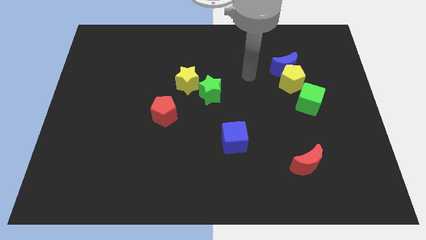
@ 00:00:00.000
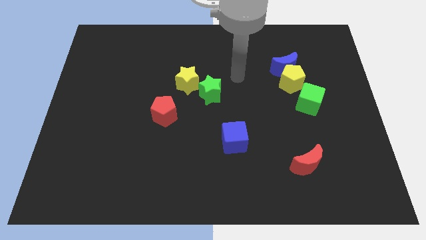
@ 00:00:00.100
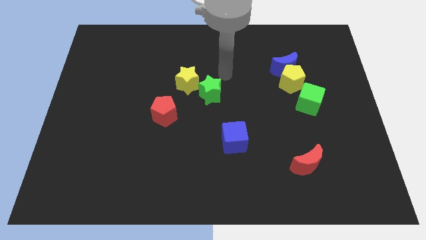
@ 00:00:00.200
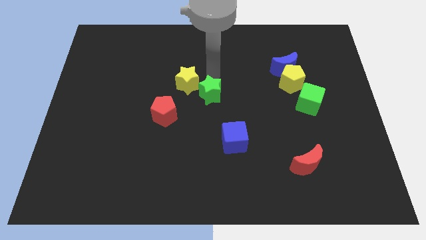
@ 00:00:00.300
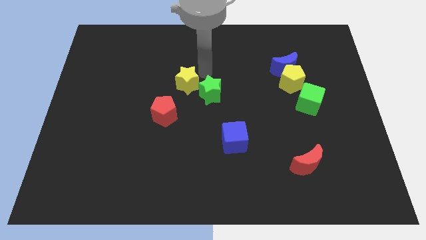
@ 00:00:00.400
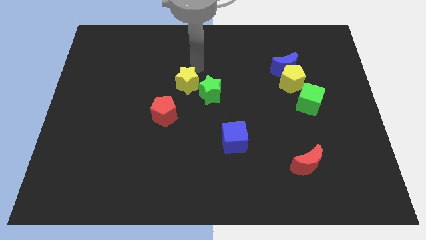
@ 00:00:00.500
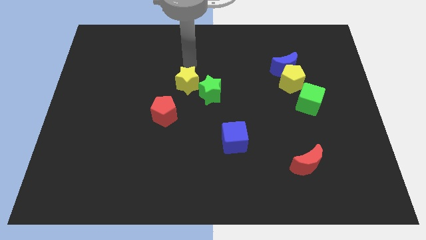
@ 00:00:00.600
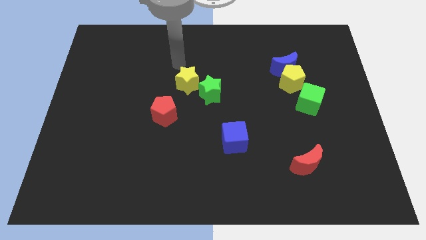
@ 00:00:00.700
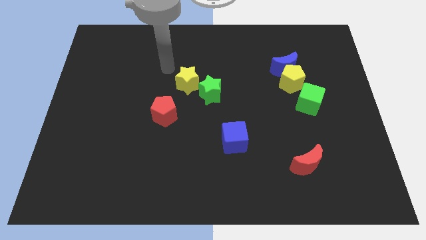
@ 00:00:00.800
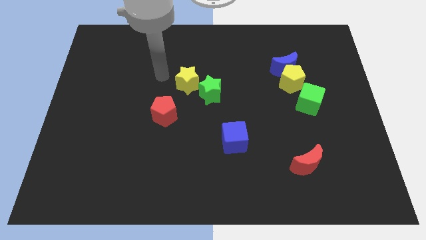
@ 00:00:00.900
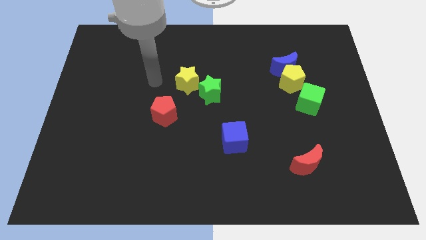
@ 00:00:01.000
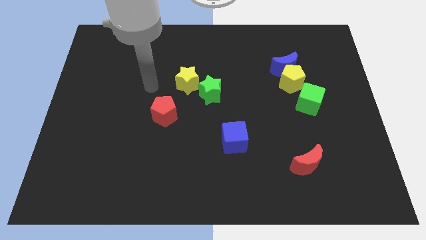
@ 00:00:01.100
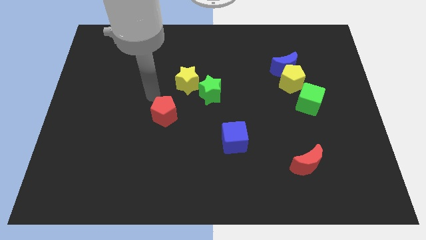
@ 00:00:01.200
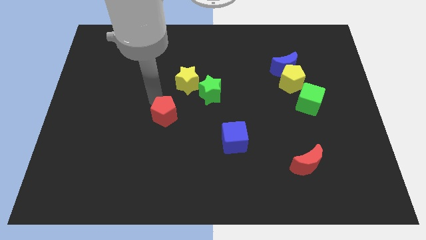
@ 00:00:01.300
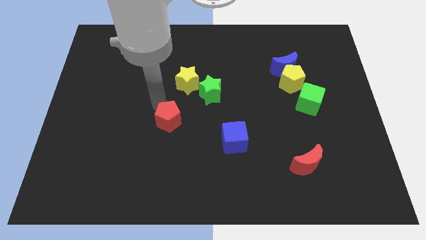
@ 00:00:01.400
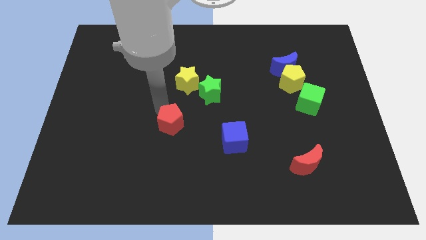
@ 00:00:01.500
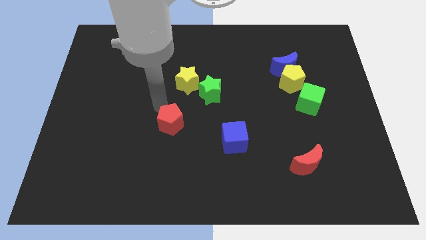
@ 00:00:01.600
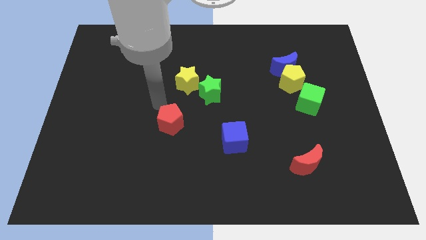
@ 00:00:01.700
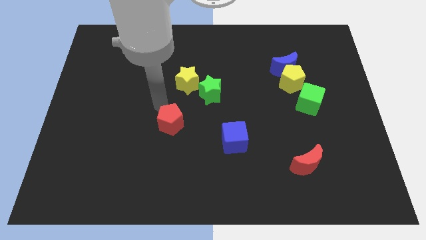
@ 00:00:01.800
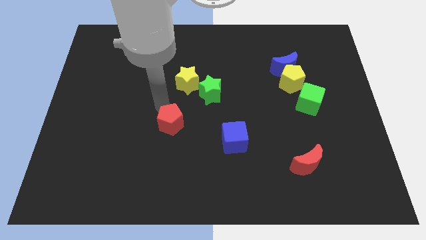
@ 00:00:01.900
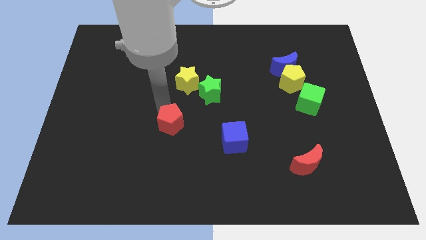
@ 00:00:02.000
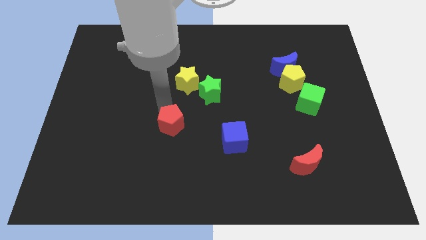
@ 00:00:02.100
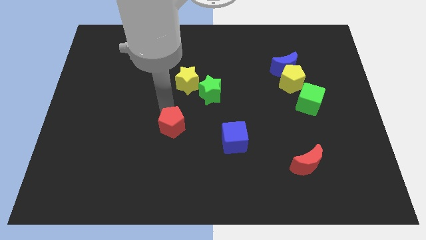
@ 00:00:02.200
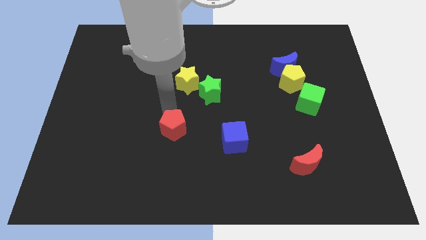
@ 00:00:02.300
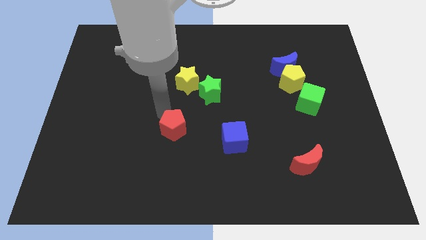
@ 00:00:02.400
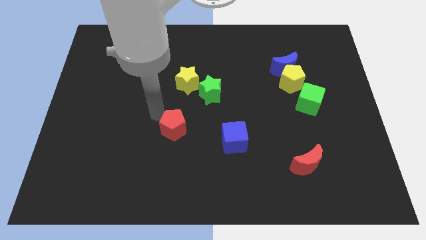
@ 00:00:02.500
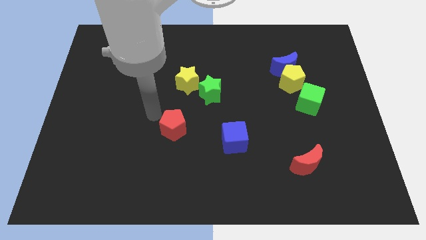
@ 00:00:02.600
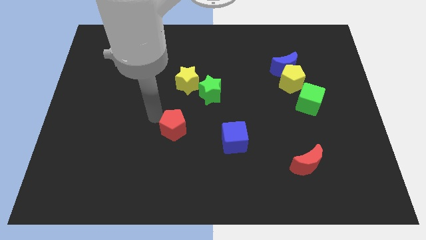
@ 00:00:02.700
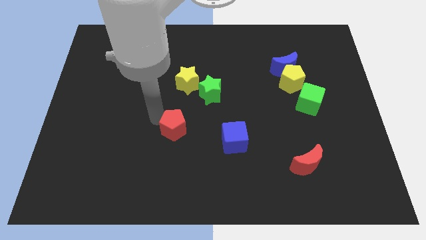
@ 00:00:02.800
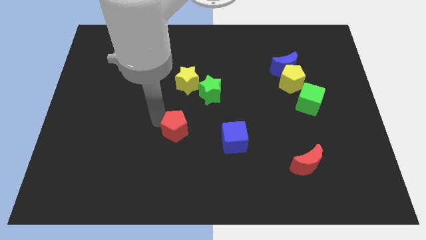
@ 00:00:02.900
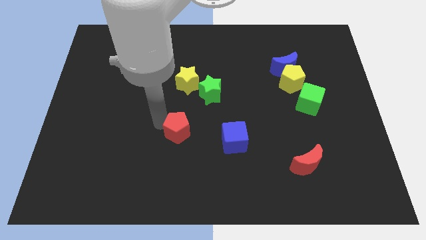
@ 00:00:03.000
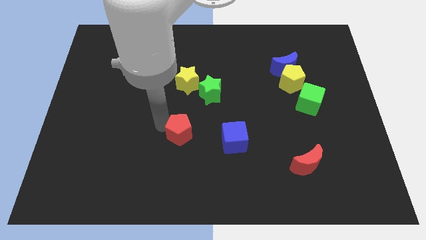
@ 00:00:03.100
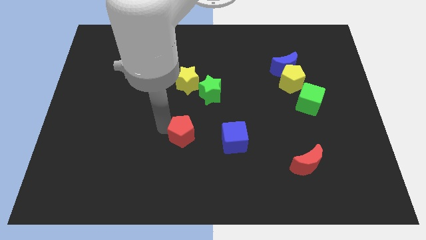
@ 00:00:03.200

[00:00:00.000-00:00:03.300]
slide the red pentagon a little down and to the right diagonally

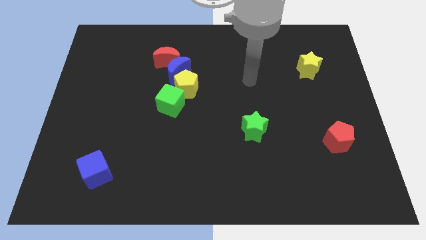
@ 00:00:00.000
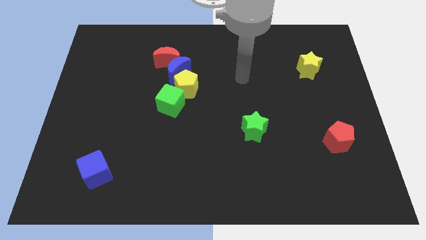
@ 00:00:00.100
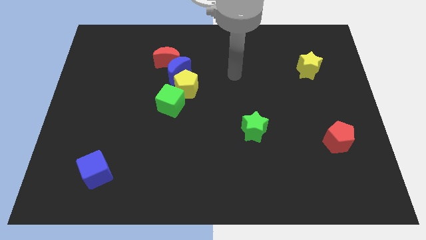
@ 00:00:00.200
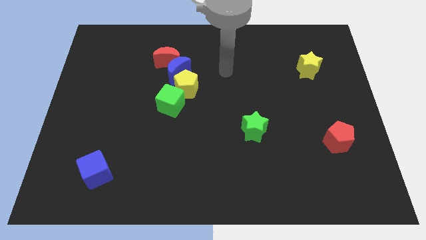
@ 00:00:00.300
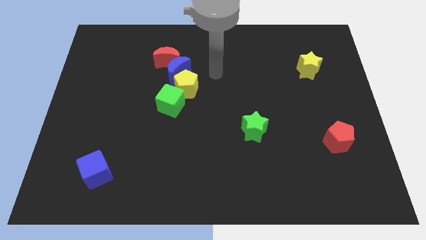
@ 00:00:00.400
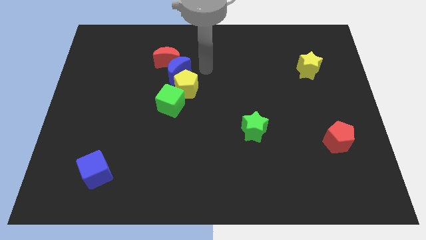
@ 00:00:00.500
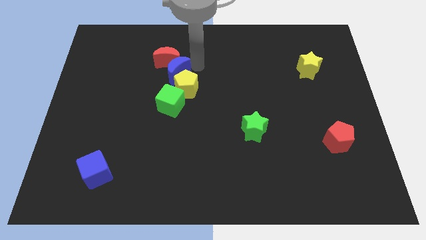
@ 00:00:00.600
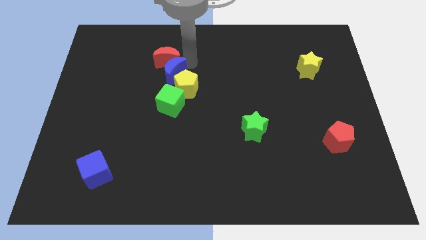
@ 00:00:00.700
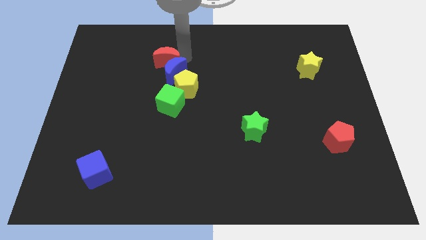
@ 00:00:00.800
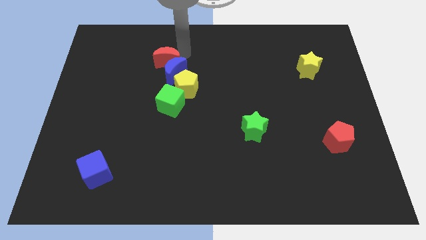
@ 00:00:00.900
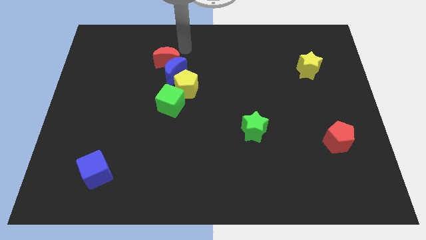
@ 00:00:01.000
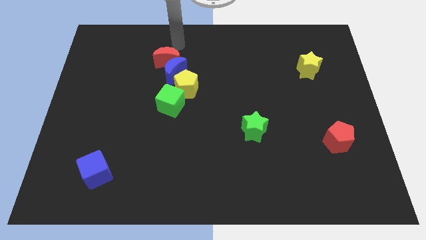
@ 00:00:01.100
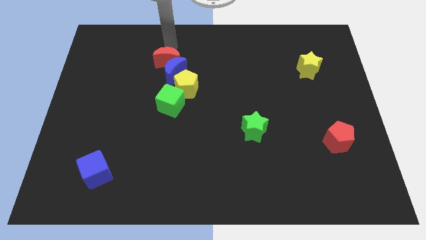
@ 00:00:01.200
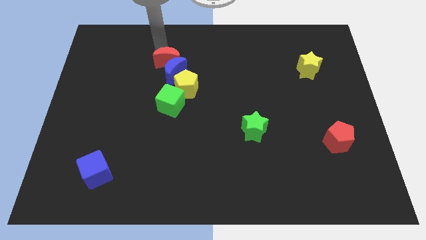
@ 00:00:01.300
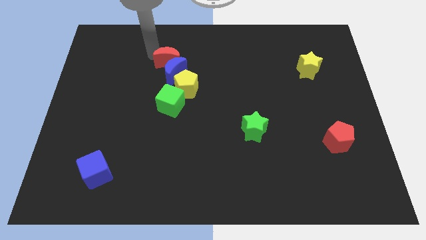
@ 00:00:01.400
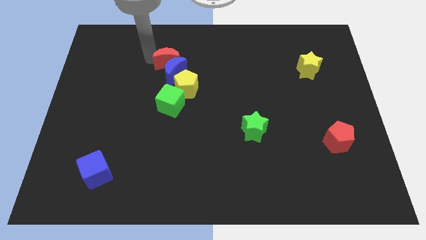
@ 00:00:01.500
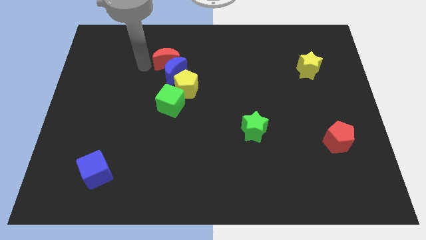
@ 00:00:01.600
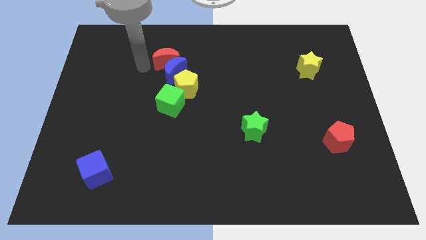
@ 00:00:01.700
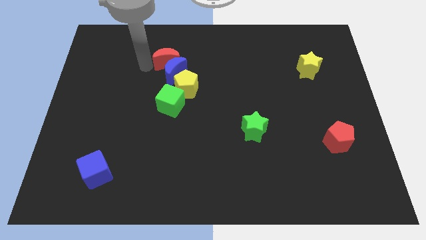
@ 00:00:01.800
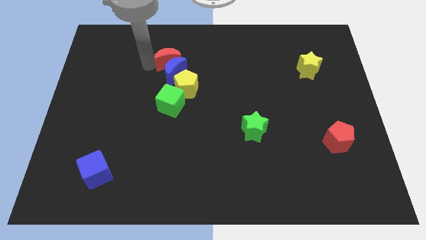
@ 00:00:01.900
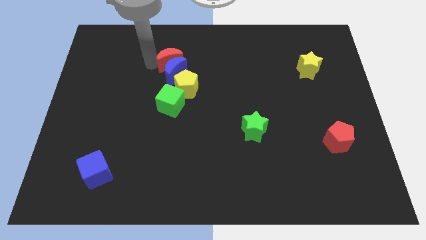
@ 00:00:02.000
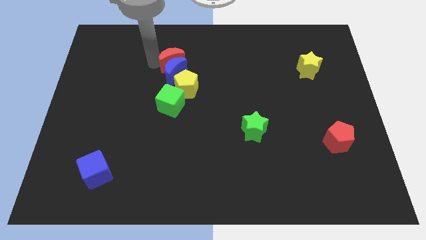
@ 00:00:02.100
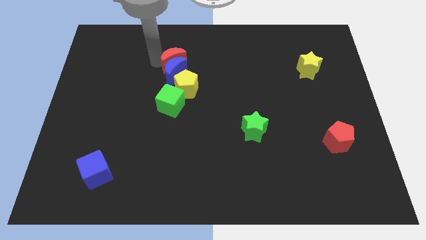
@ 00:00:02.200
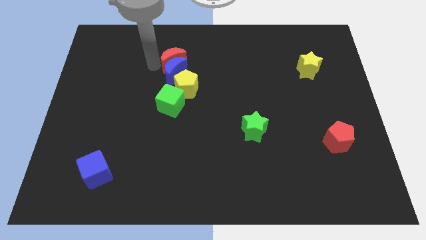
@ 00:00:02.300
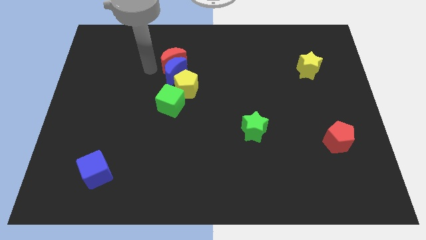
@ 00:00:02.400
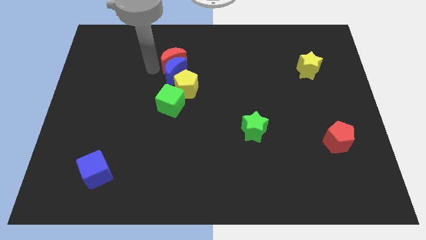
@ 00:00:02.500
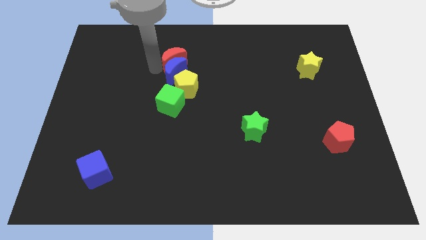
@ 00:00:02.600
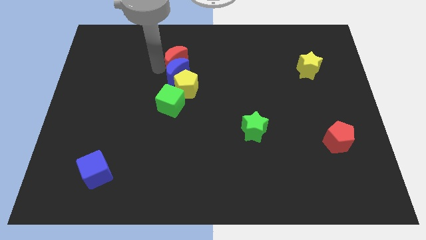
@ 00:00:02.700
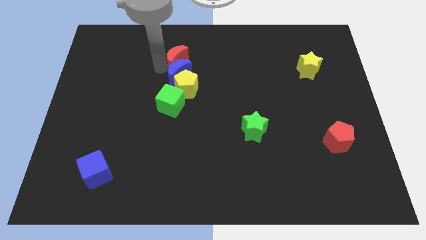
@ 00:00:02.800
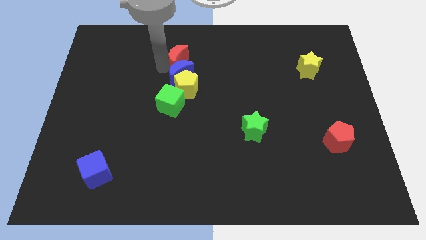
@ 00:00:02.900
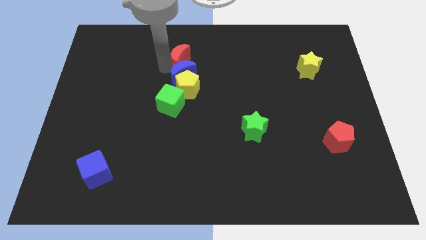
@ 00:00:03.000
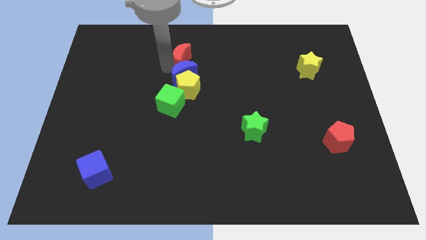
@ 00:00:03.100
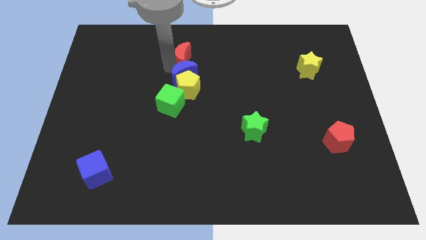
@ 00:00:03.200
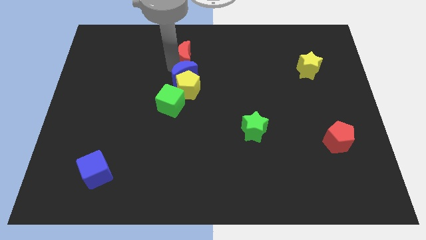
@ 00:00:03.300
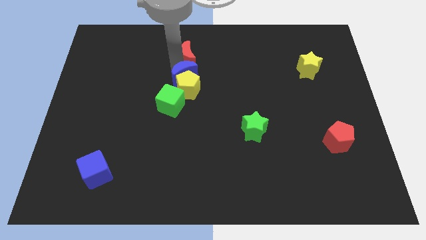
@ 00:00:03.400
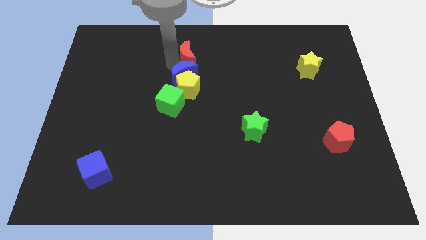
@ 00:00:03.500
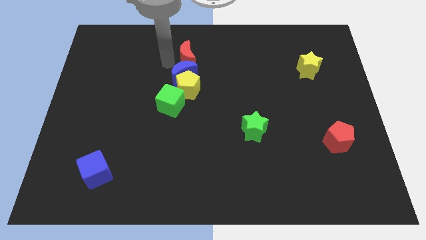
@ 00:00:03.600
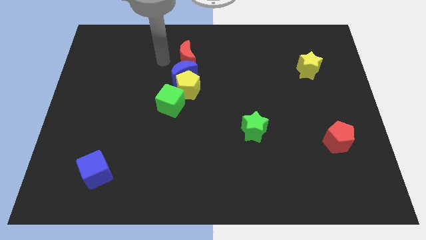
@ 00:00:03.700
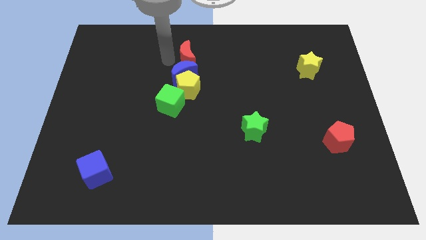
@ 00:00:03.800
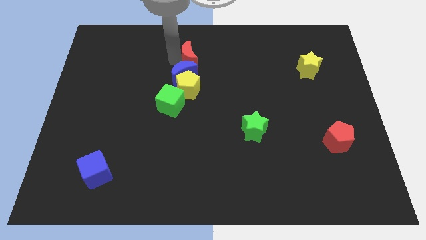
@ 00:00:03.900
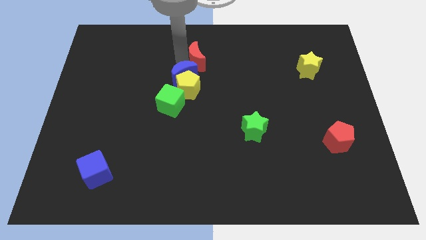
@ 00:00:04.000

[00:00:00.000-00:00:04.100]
slide the red moon a little right

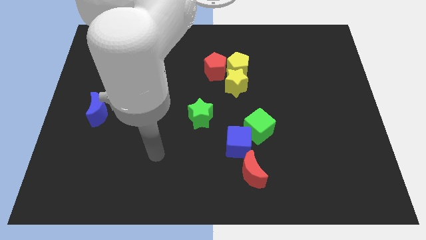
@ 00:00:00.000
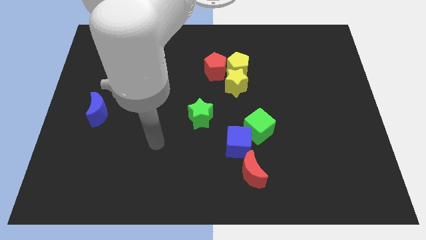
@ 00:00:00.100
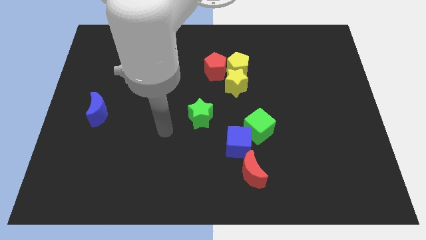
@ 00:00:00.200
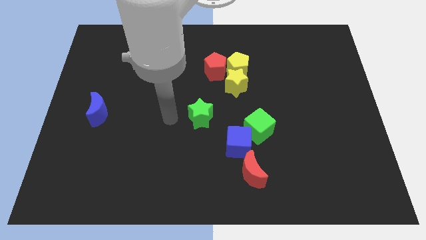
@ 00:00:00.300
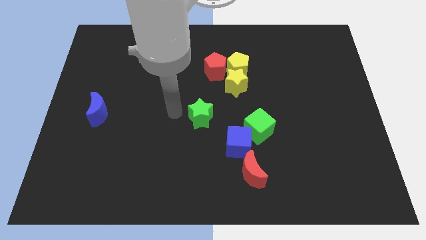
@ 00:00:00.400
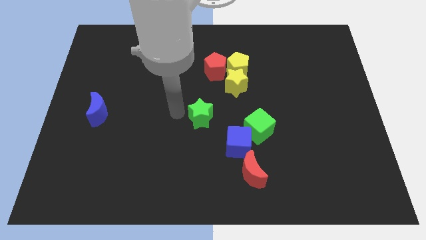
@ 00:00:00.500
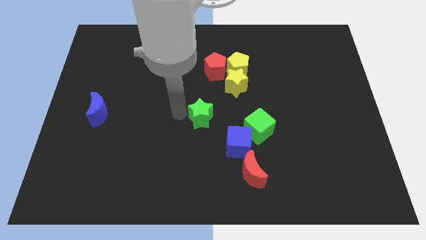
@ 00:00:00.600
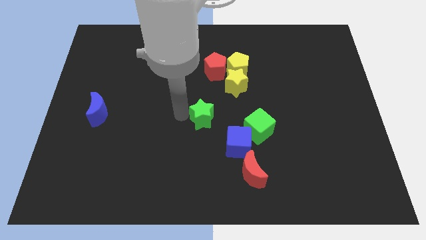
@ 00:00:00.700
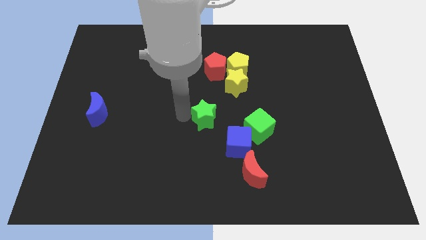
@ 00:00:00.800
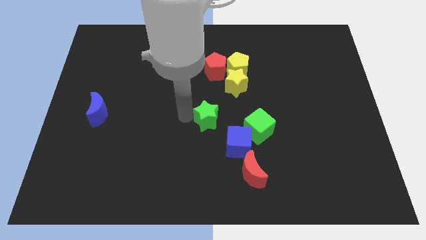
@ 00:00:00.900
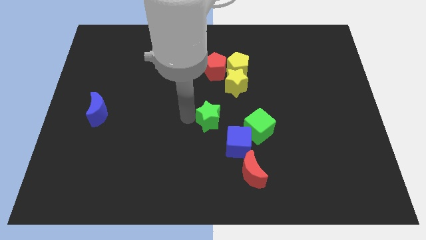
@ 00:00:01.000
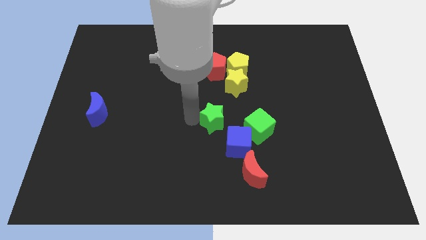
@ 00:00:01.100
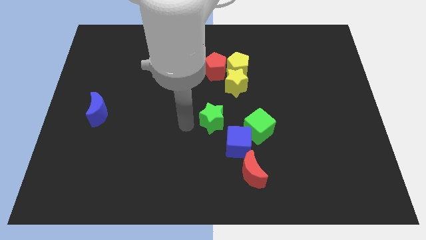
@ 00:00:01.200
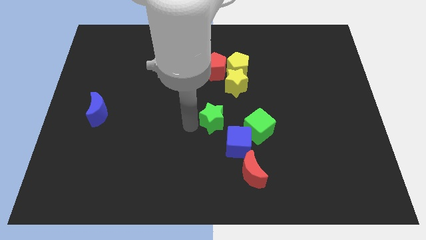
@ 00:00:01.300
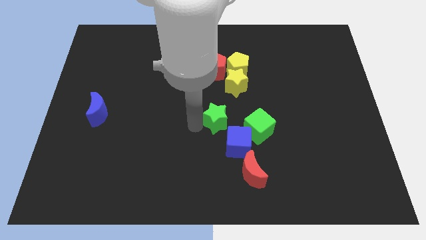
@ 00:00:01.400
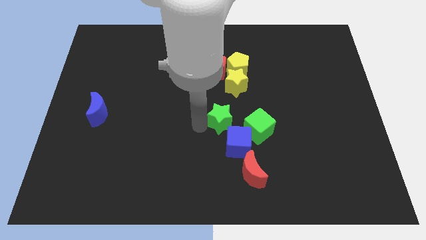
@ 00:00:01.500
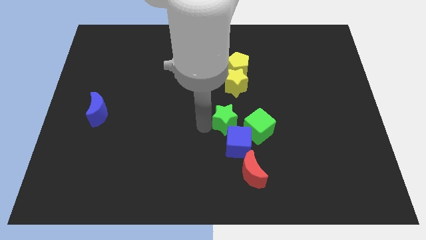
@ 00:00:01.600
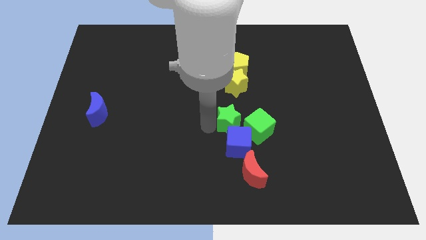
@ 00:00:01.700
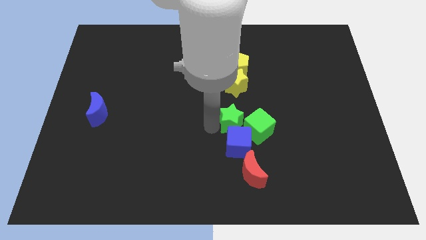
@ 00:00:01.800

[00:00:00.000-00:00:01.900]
move the green star to the right a bit
